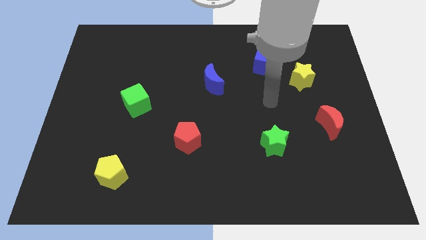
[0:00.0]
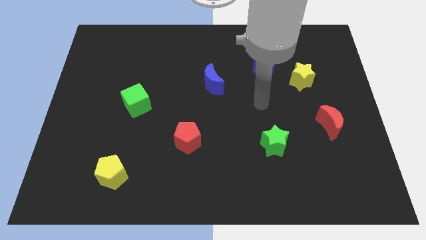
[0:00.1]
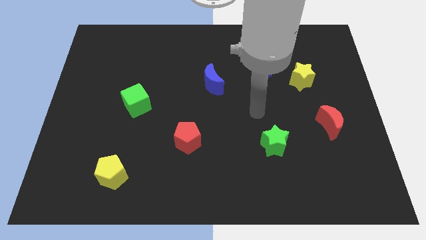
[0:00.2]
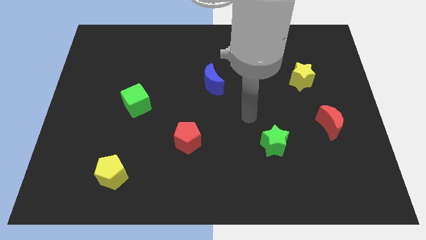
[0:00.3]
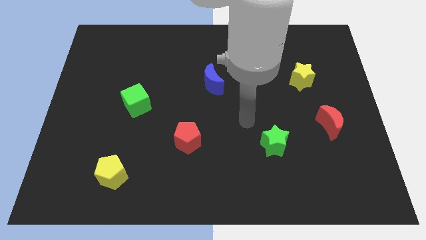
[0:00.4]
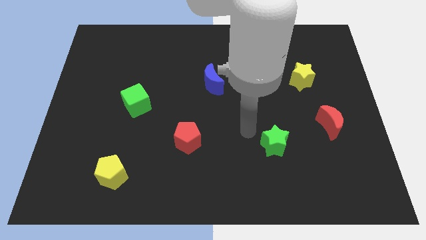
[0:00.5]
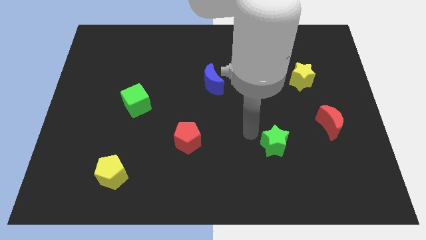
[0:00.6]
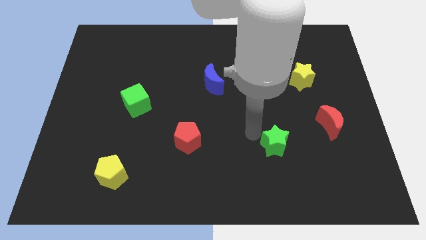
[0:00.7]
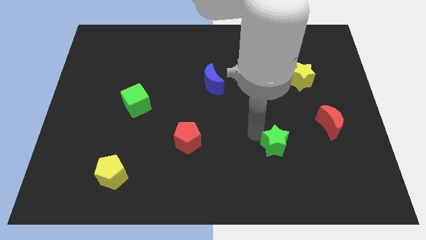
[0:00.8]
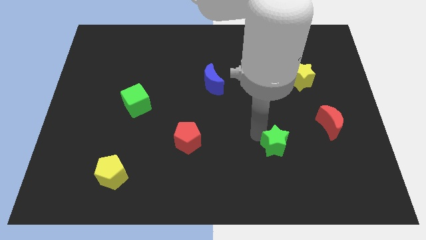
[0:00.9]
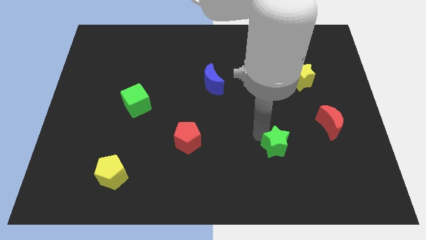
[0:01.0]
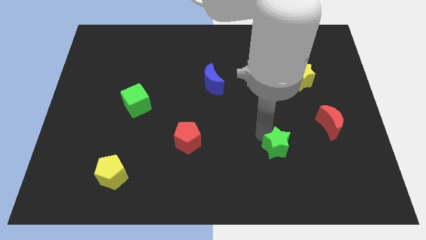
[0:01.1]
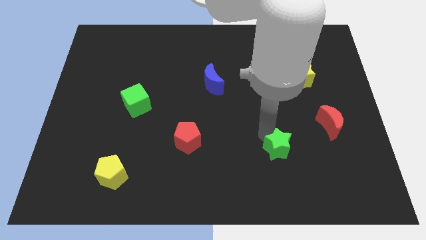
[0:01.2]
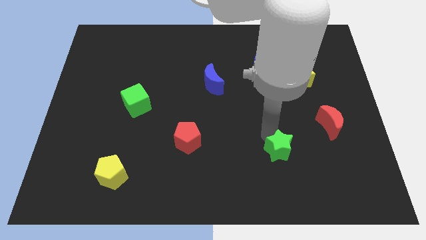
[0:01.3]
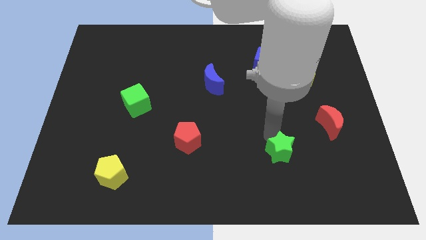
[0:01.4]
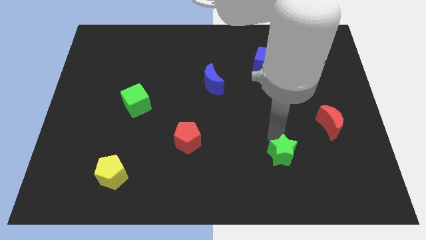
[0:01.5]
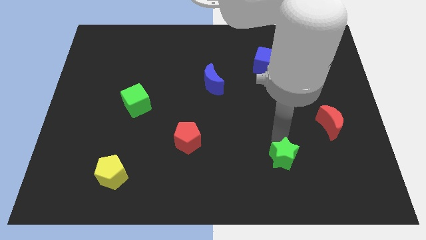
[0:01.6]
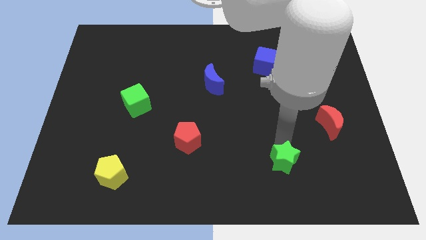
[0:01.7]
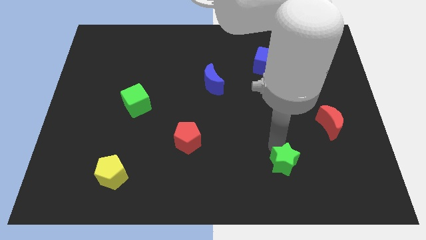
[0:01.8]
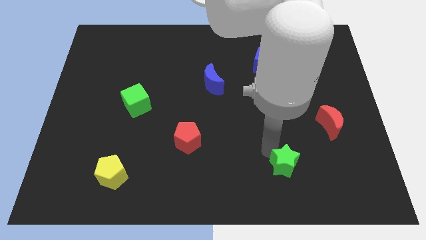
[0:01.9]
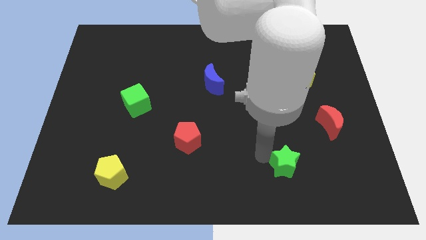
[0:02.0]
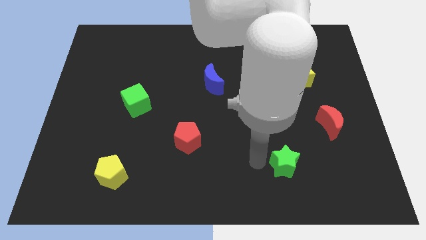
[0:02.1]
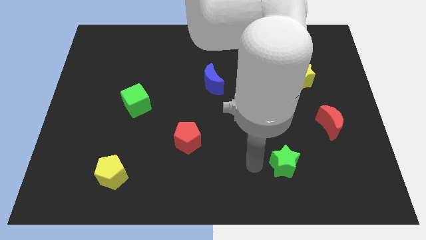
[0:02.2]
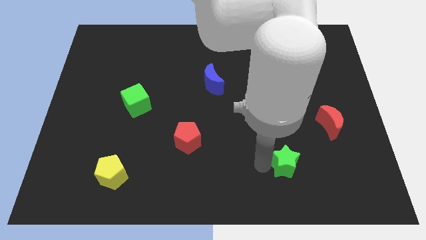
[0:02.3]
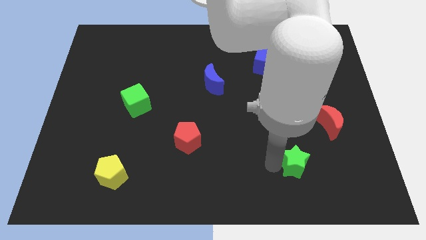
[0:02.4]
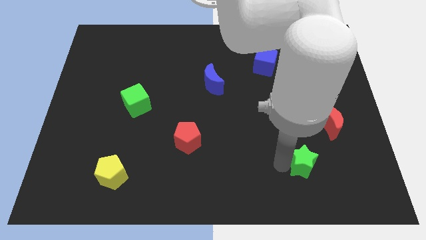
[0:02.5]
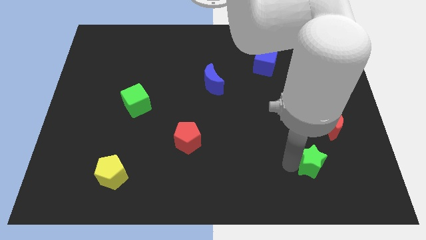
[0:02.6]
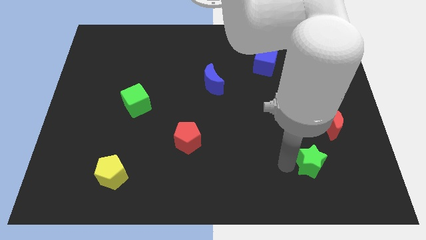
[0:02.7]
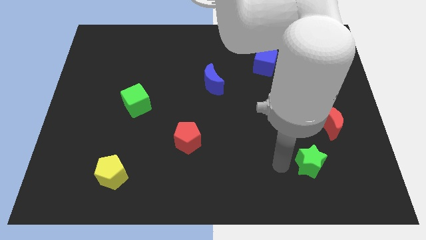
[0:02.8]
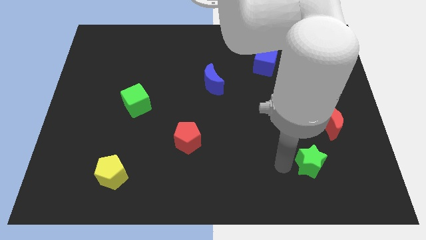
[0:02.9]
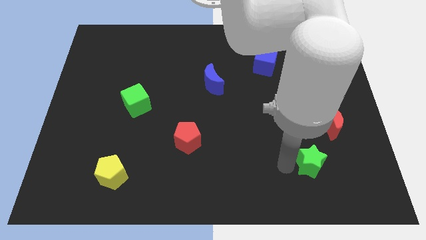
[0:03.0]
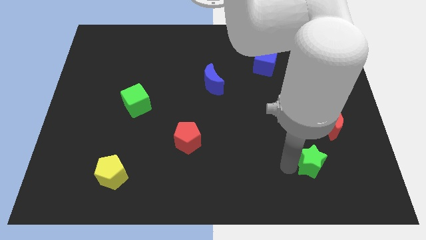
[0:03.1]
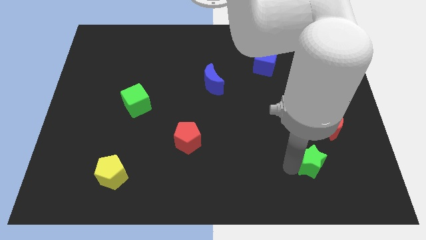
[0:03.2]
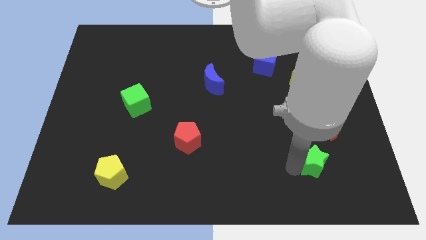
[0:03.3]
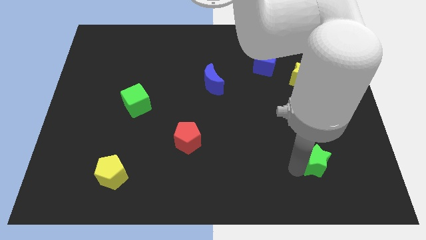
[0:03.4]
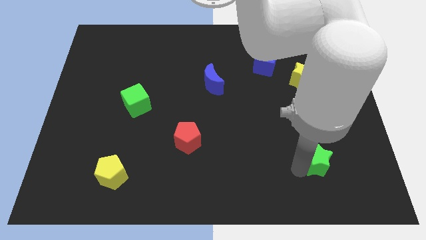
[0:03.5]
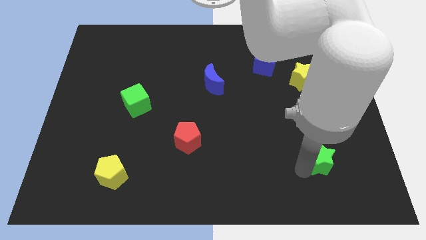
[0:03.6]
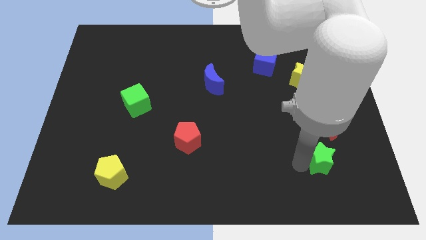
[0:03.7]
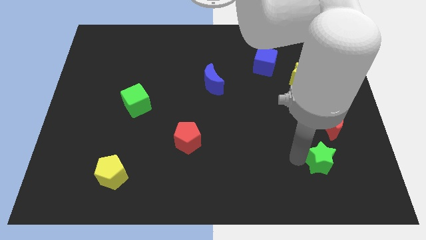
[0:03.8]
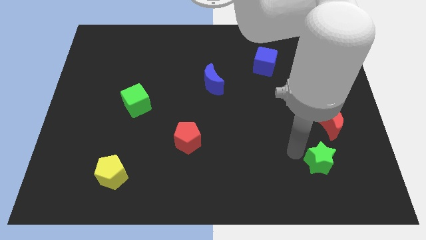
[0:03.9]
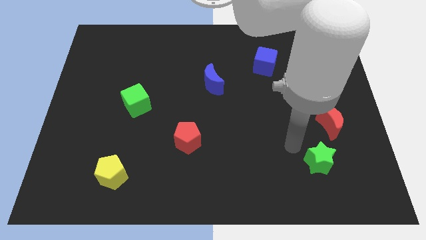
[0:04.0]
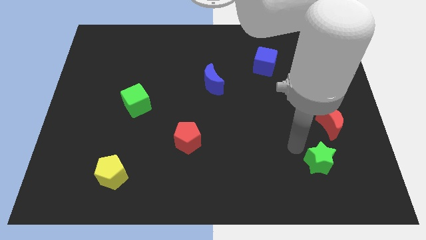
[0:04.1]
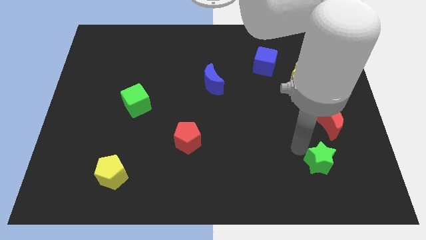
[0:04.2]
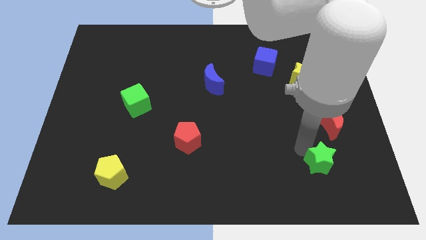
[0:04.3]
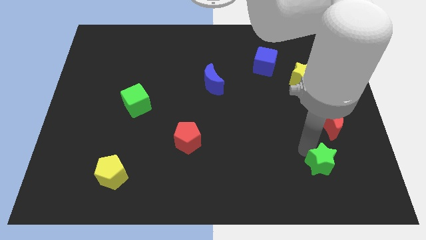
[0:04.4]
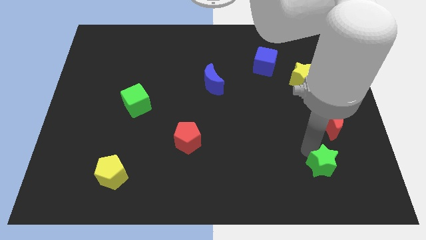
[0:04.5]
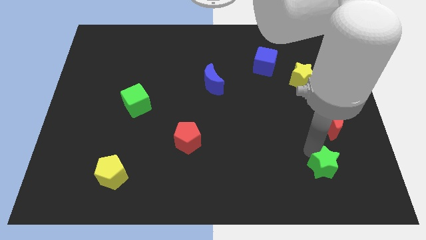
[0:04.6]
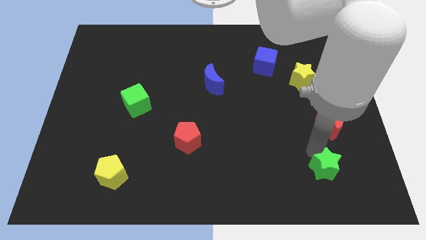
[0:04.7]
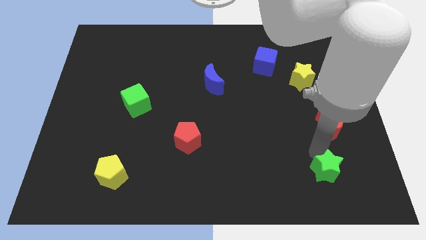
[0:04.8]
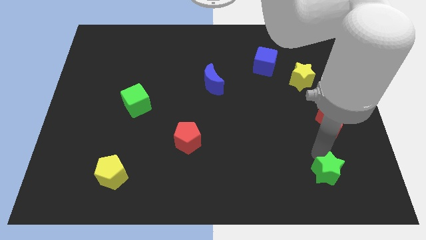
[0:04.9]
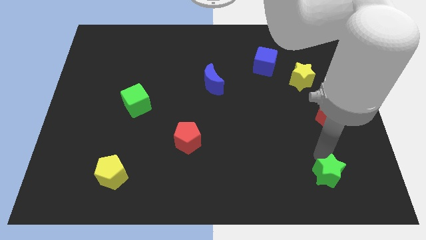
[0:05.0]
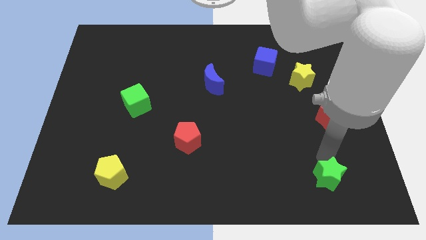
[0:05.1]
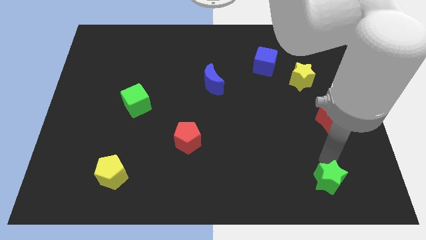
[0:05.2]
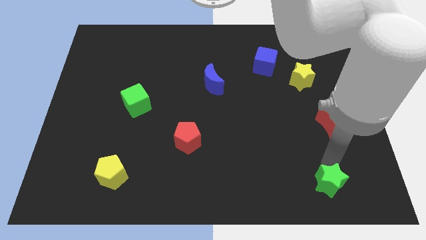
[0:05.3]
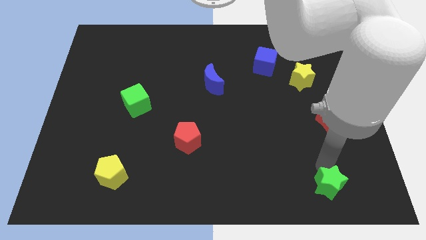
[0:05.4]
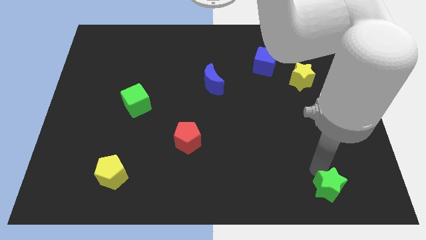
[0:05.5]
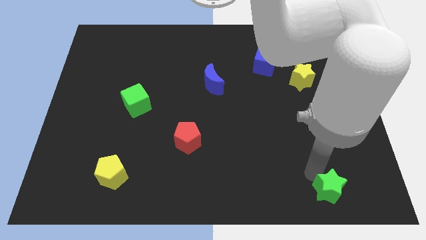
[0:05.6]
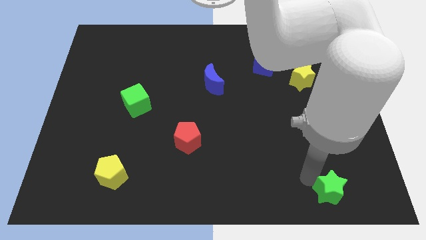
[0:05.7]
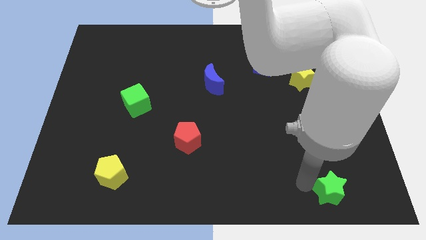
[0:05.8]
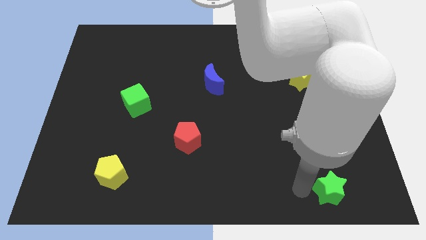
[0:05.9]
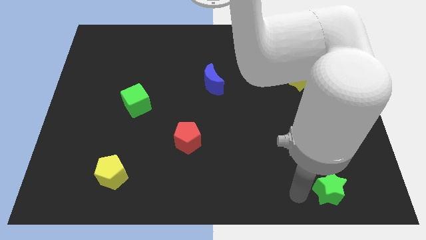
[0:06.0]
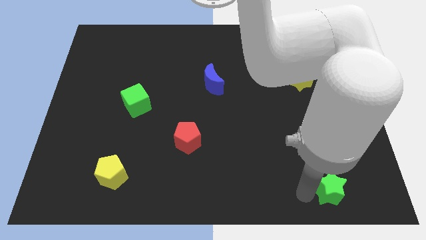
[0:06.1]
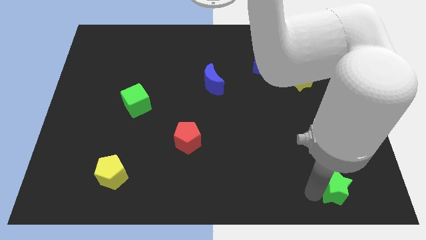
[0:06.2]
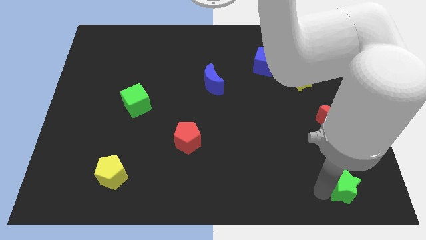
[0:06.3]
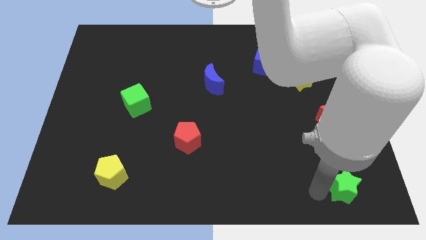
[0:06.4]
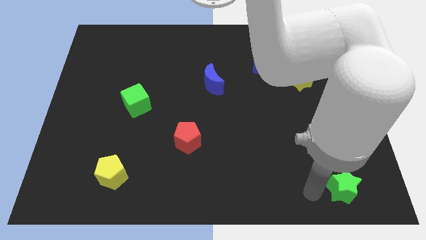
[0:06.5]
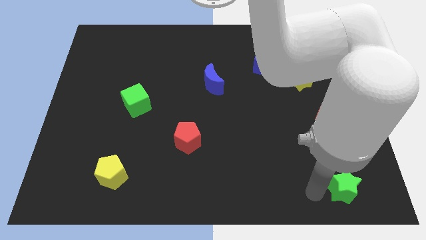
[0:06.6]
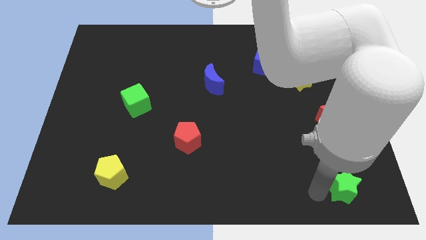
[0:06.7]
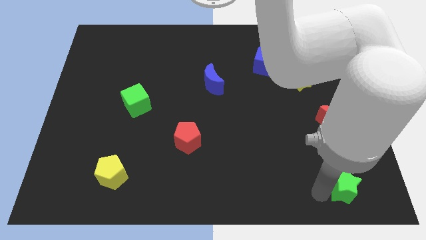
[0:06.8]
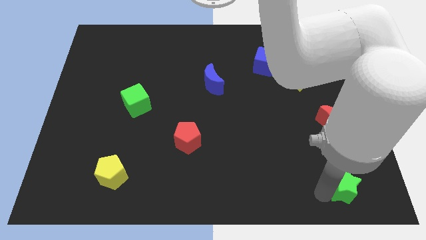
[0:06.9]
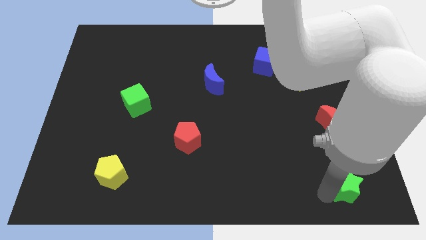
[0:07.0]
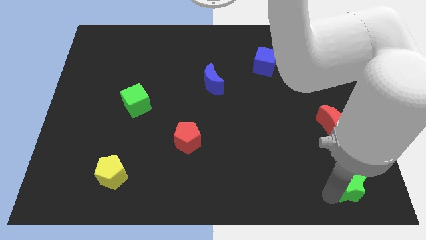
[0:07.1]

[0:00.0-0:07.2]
move the green star to the bottom right
